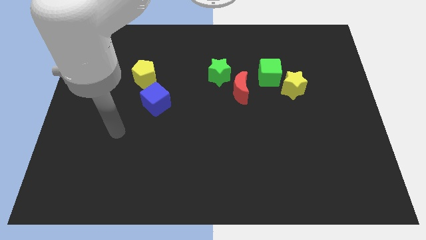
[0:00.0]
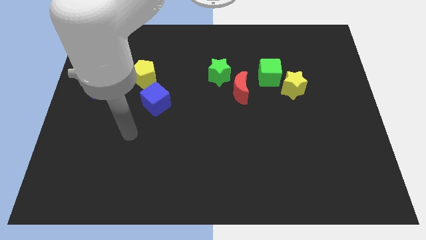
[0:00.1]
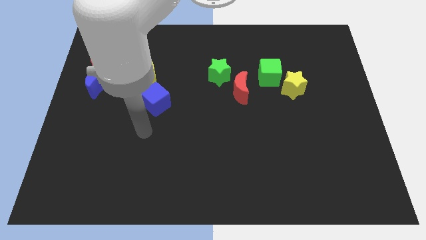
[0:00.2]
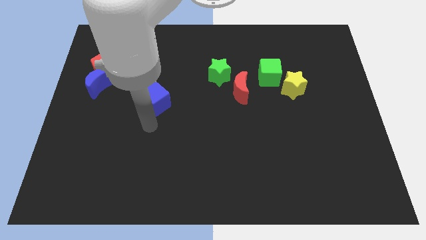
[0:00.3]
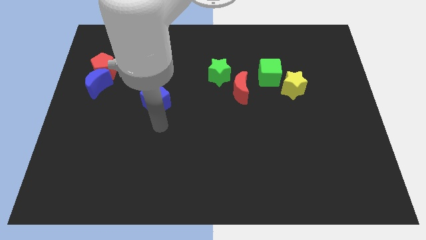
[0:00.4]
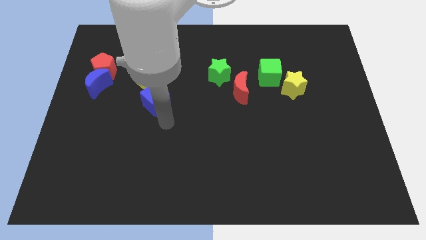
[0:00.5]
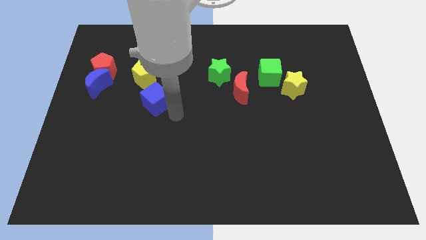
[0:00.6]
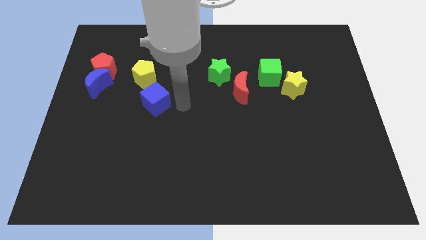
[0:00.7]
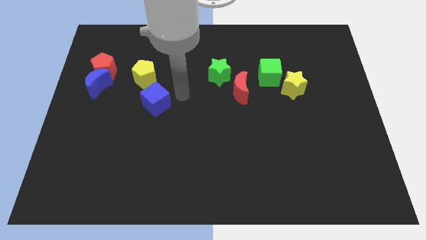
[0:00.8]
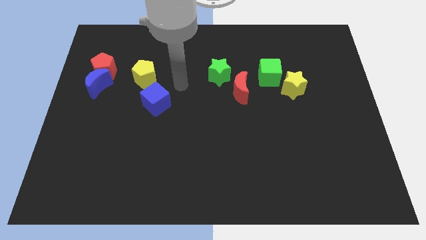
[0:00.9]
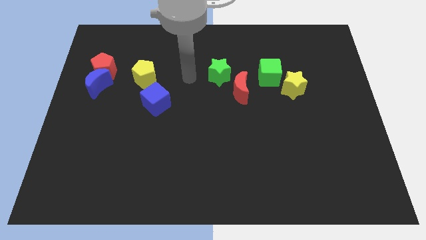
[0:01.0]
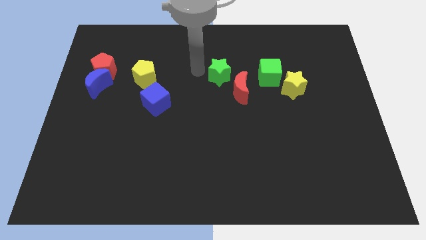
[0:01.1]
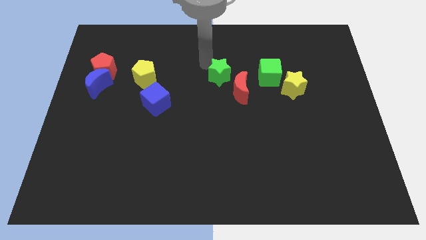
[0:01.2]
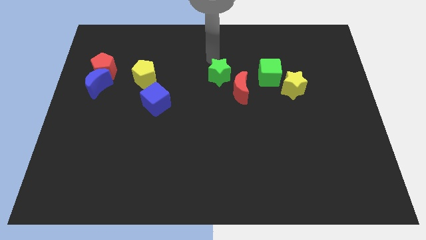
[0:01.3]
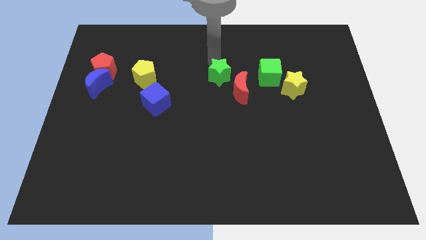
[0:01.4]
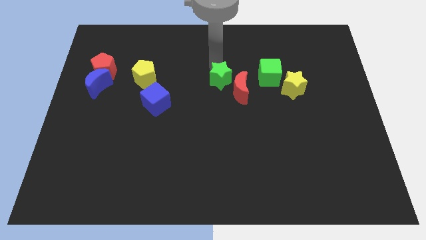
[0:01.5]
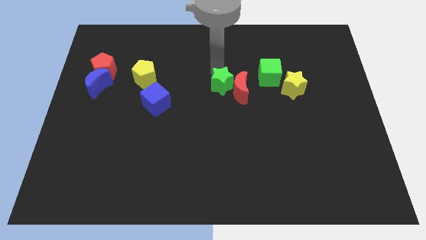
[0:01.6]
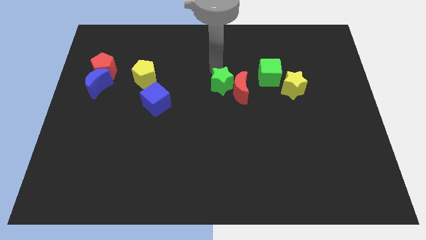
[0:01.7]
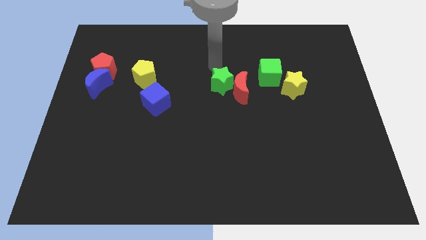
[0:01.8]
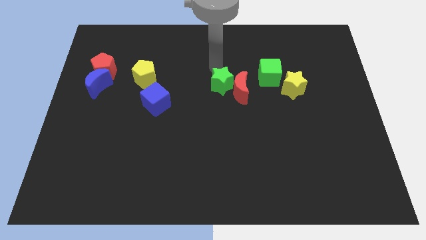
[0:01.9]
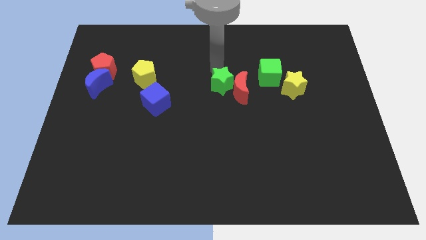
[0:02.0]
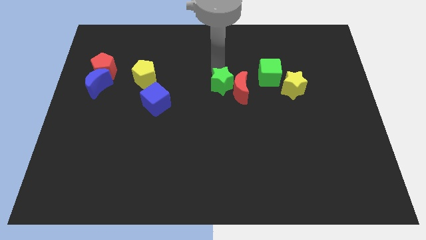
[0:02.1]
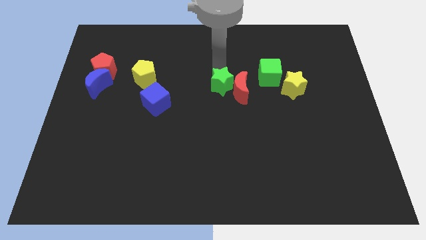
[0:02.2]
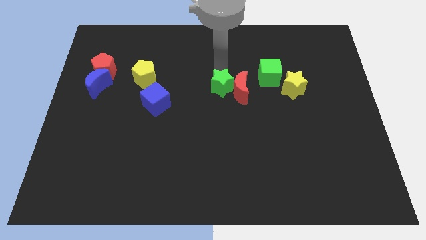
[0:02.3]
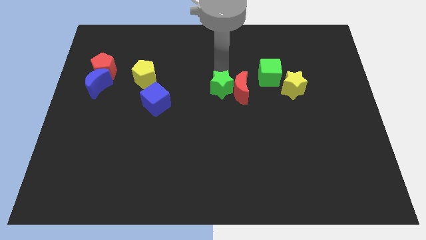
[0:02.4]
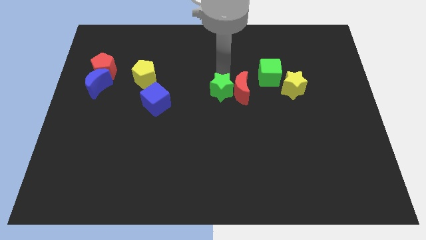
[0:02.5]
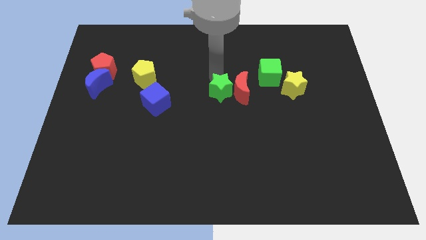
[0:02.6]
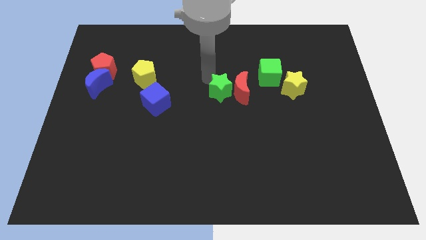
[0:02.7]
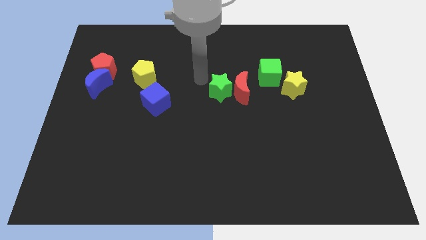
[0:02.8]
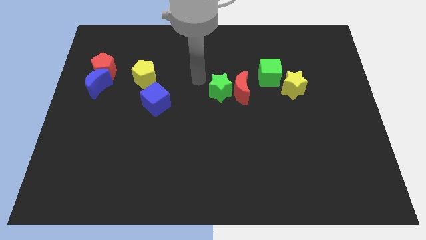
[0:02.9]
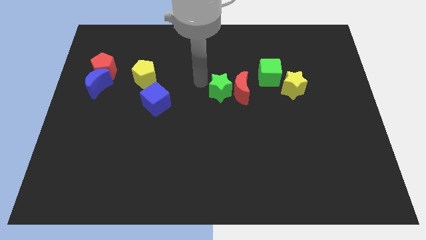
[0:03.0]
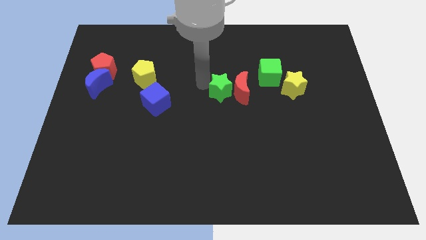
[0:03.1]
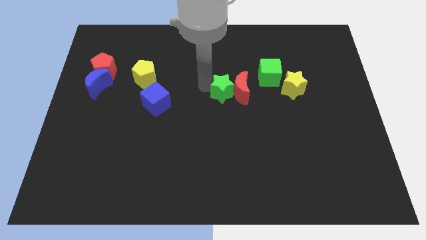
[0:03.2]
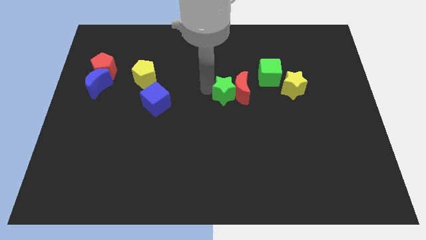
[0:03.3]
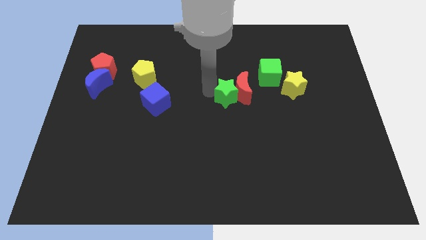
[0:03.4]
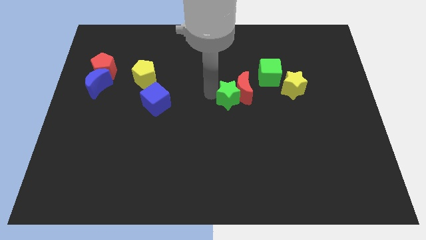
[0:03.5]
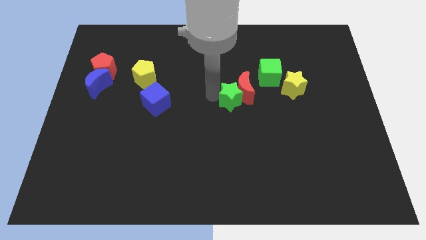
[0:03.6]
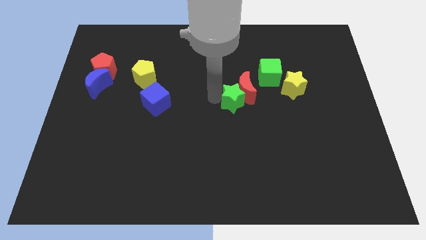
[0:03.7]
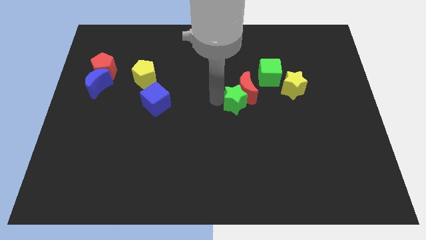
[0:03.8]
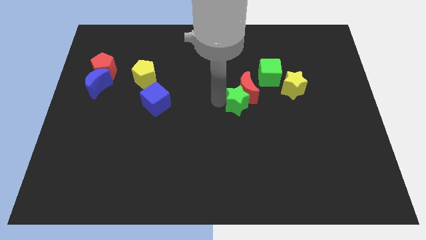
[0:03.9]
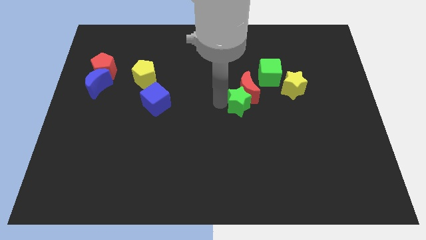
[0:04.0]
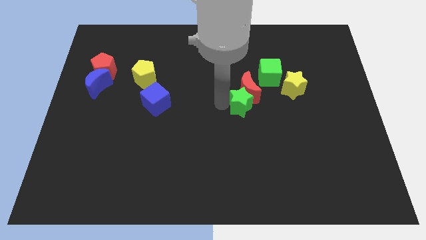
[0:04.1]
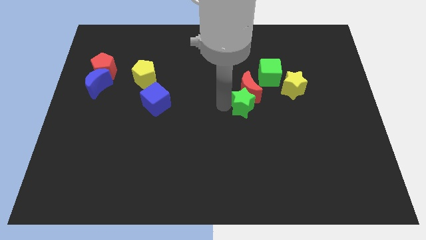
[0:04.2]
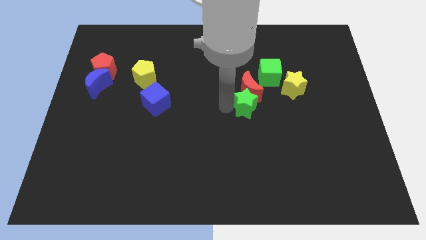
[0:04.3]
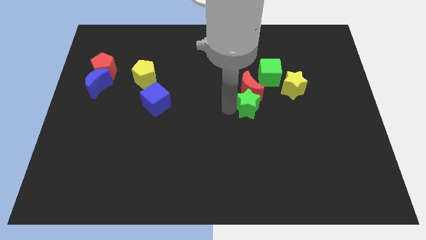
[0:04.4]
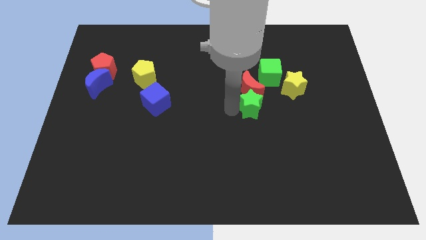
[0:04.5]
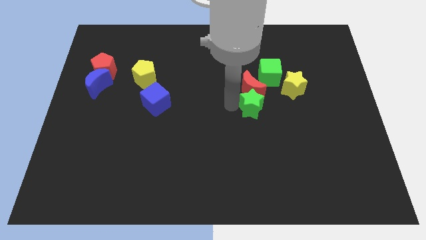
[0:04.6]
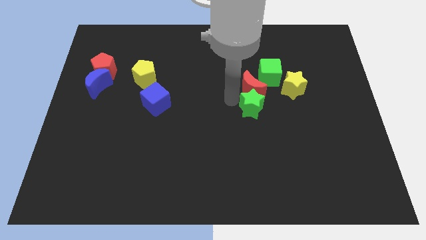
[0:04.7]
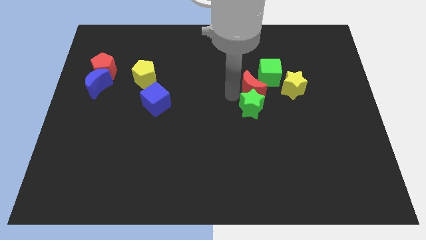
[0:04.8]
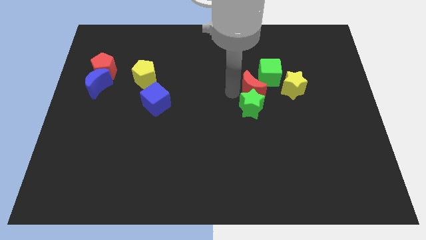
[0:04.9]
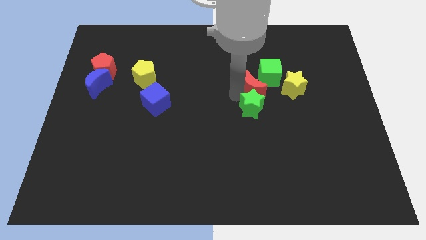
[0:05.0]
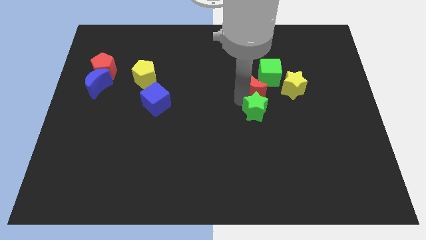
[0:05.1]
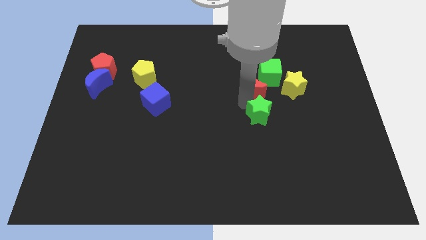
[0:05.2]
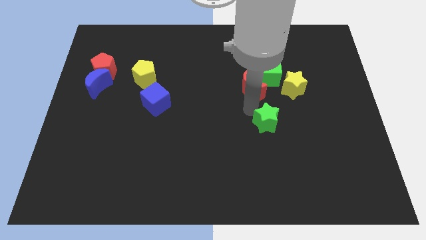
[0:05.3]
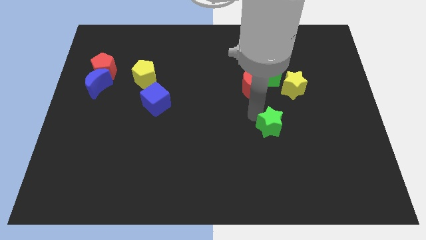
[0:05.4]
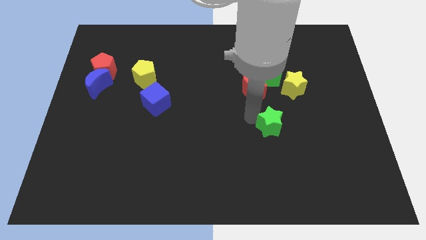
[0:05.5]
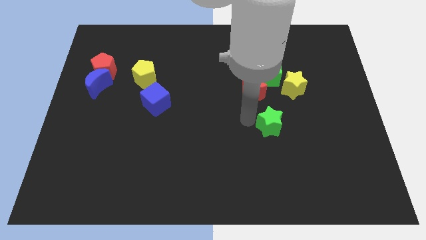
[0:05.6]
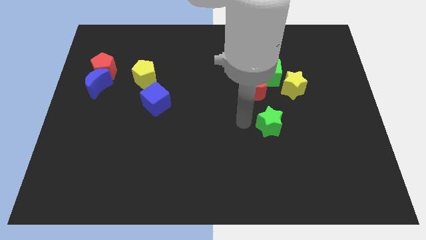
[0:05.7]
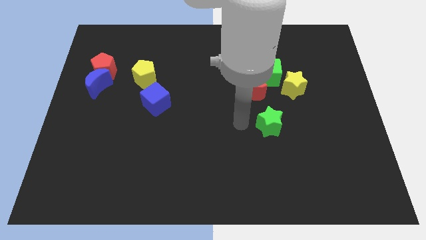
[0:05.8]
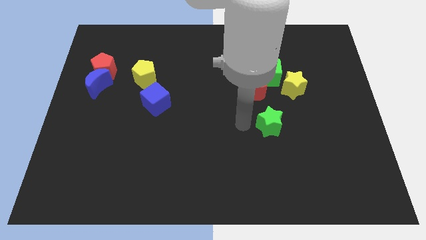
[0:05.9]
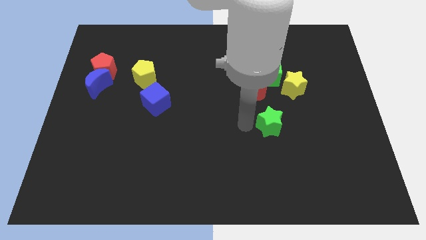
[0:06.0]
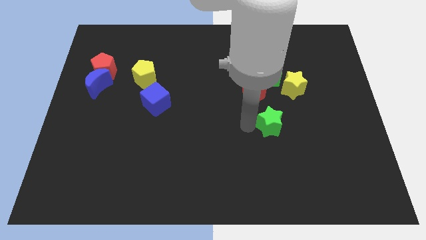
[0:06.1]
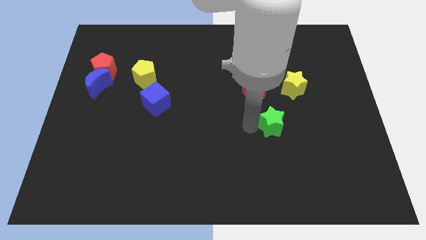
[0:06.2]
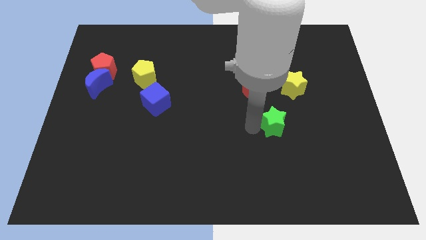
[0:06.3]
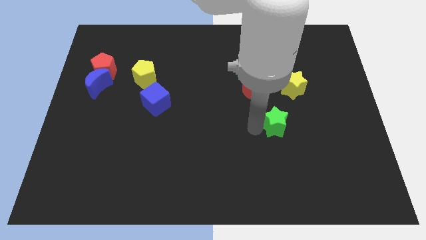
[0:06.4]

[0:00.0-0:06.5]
move the green star down and right diagonally

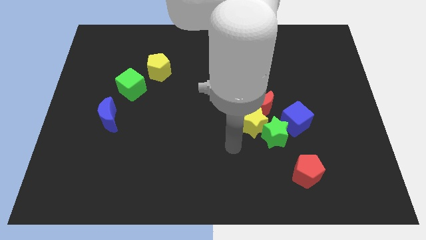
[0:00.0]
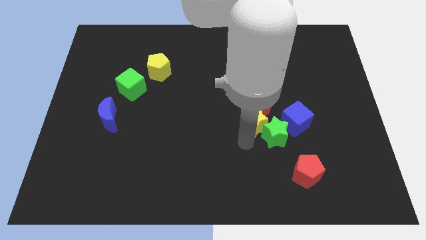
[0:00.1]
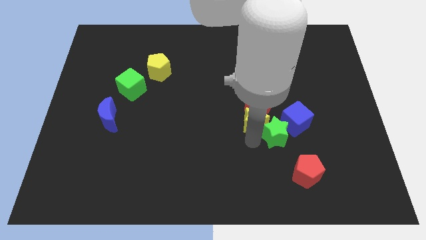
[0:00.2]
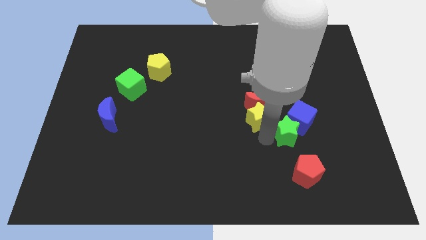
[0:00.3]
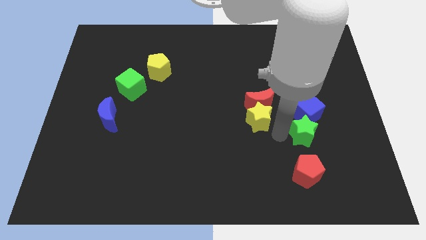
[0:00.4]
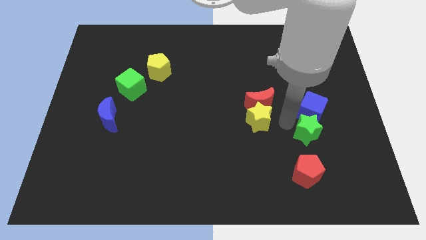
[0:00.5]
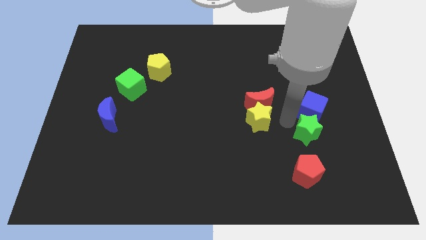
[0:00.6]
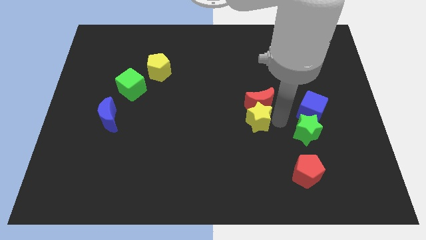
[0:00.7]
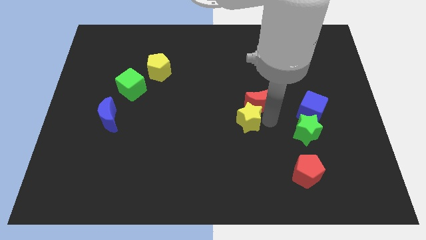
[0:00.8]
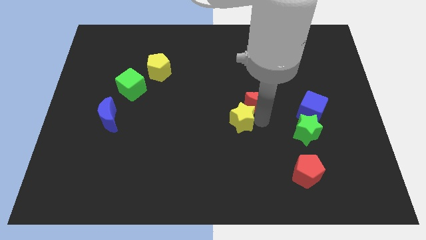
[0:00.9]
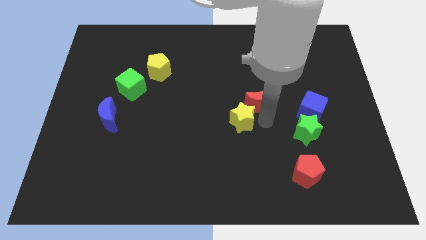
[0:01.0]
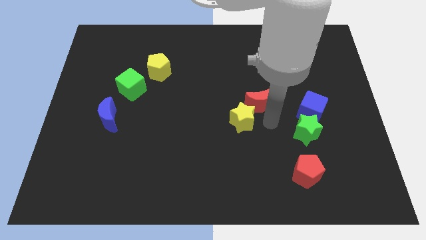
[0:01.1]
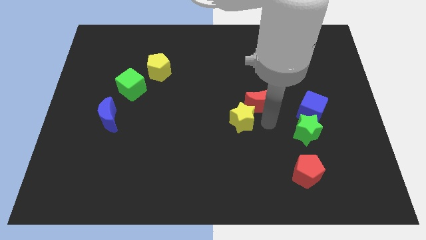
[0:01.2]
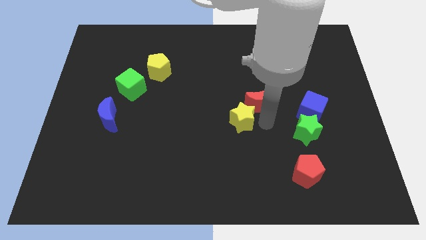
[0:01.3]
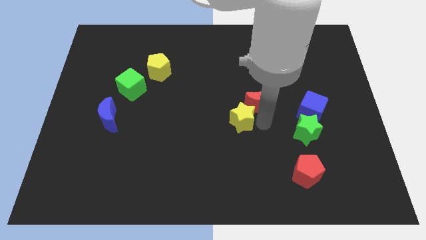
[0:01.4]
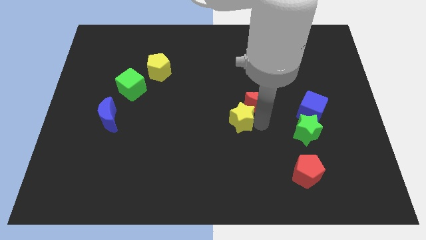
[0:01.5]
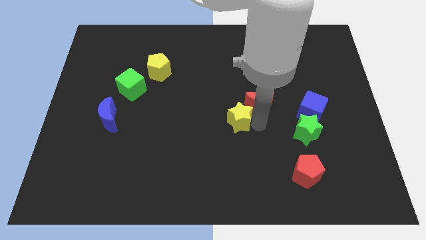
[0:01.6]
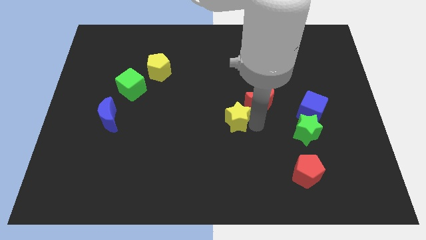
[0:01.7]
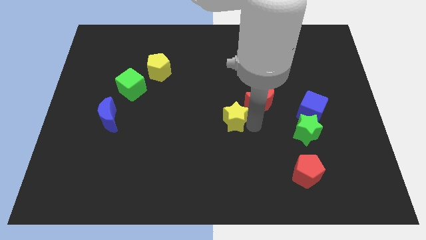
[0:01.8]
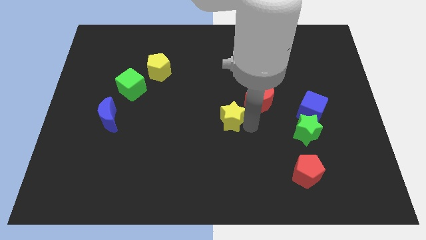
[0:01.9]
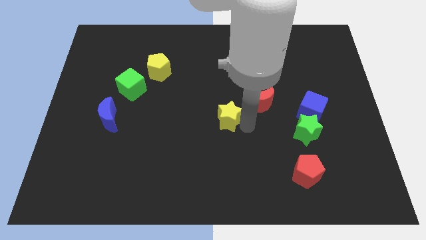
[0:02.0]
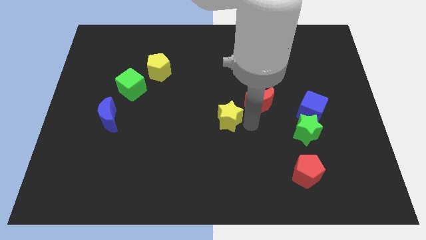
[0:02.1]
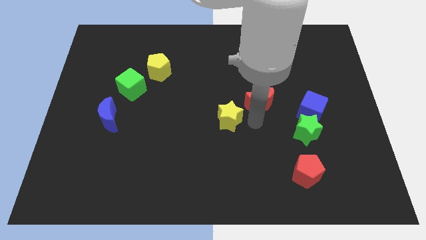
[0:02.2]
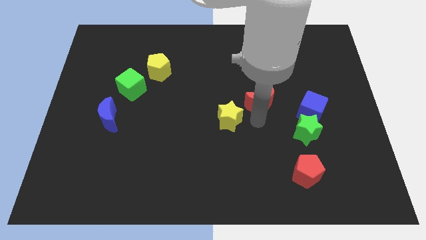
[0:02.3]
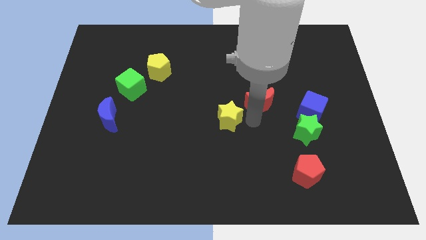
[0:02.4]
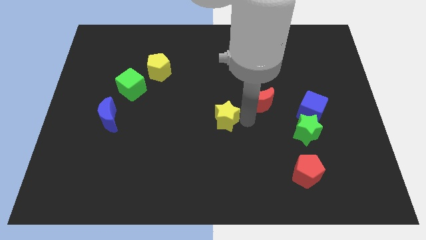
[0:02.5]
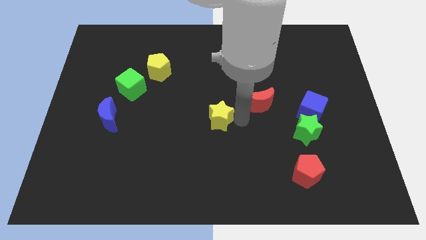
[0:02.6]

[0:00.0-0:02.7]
push the yellow star somewhat left
